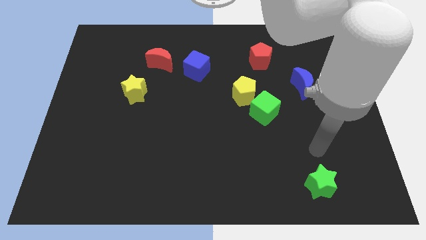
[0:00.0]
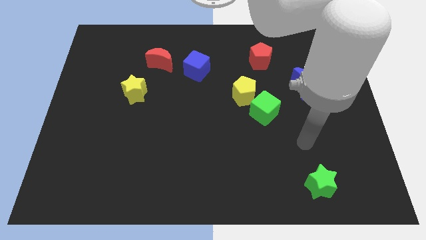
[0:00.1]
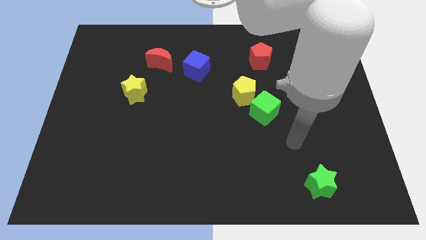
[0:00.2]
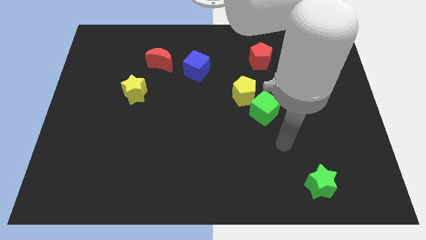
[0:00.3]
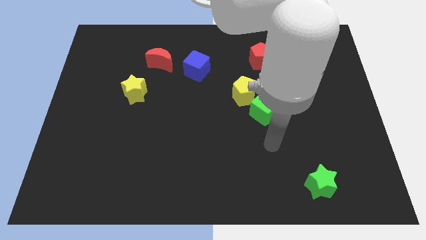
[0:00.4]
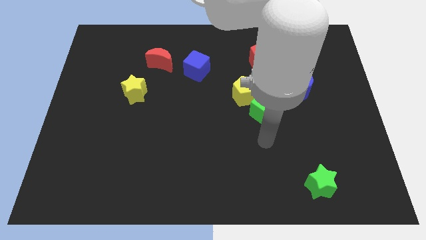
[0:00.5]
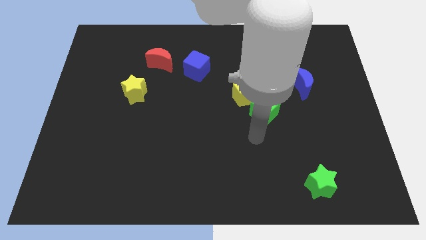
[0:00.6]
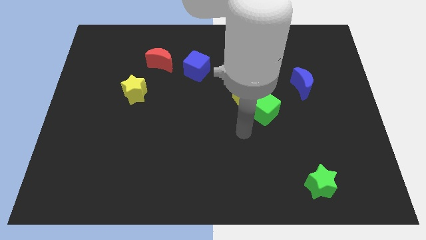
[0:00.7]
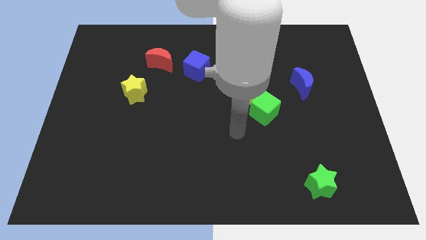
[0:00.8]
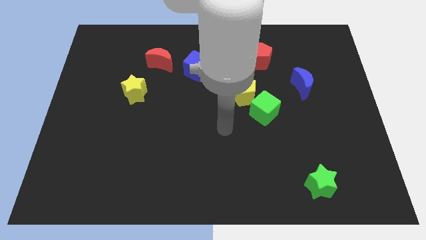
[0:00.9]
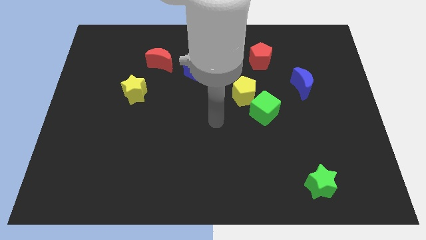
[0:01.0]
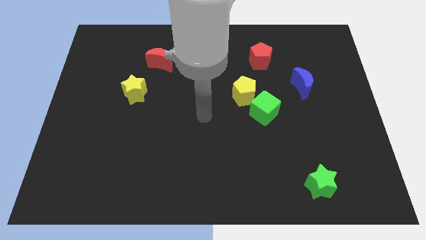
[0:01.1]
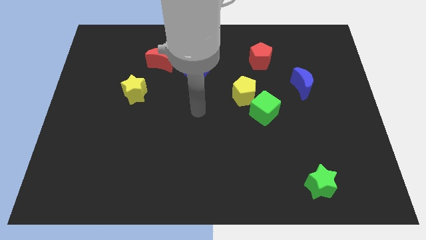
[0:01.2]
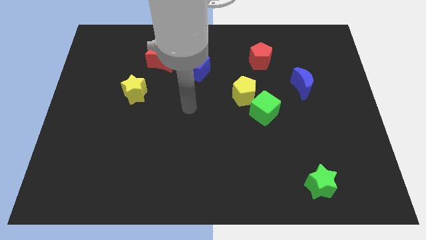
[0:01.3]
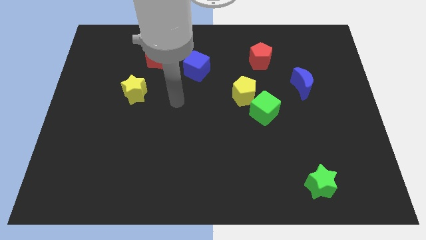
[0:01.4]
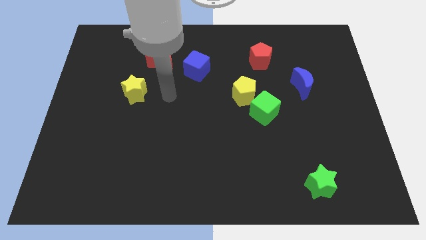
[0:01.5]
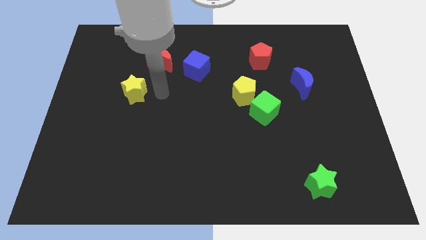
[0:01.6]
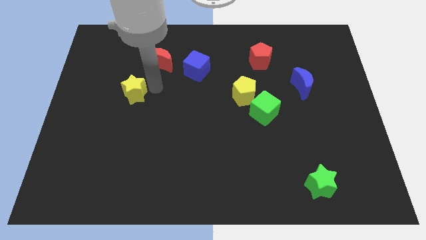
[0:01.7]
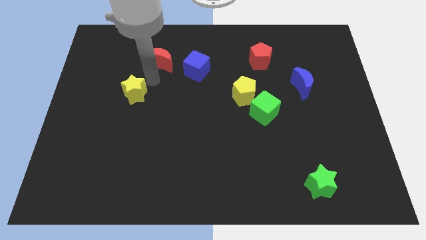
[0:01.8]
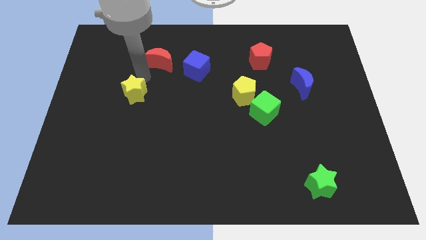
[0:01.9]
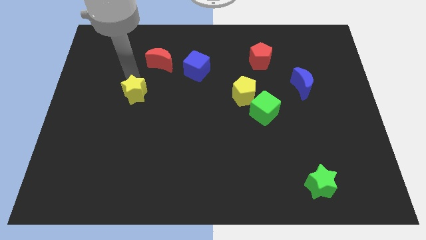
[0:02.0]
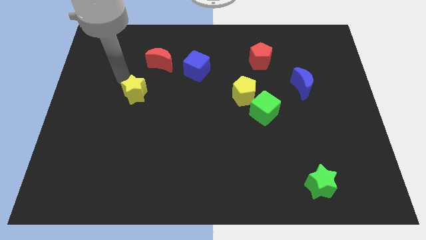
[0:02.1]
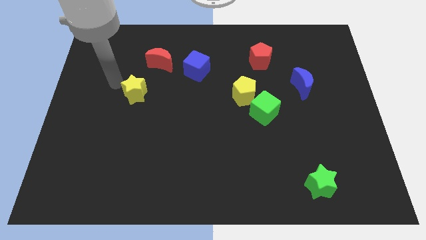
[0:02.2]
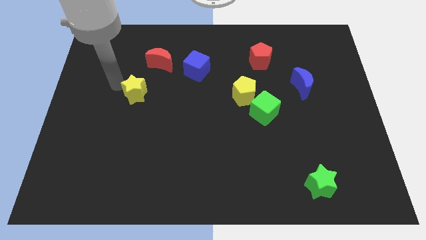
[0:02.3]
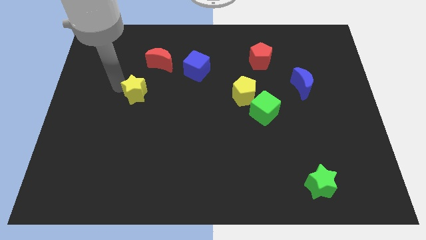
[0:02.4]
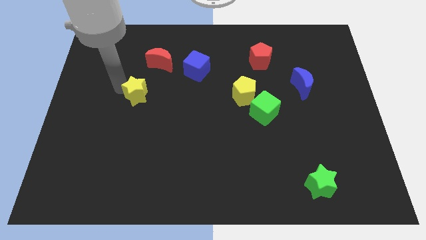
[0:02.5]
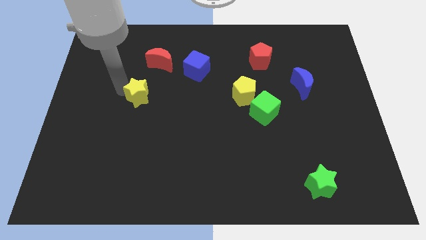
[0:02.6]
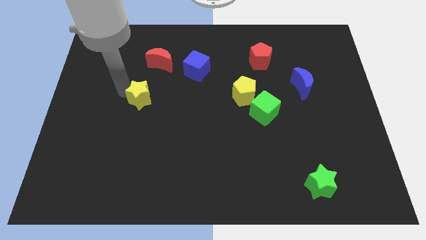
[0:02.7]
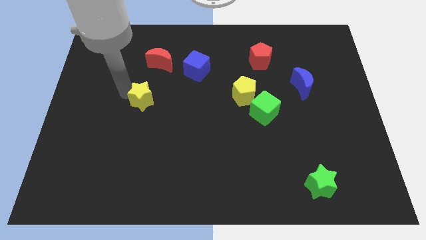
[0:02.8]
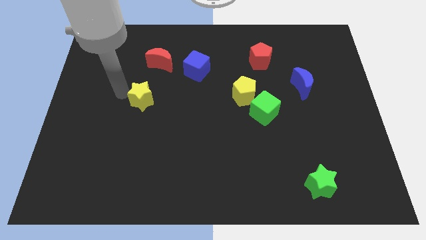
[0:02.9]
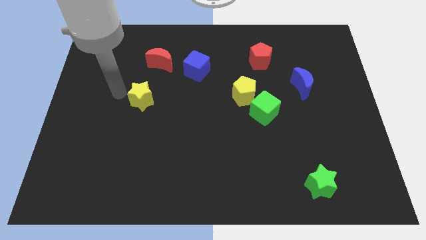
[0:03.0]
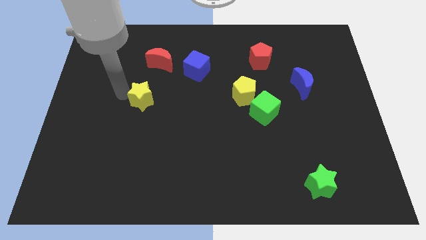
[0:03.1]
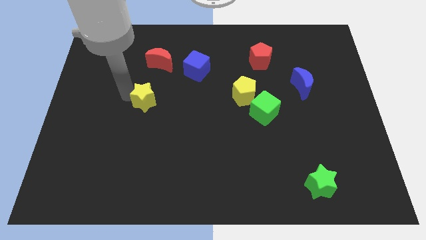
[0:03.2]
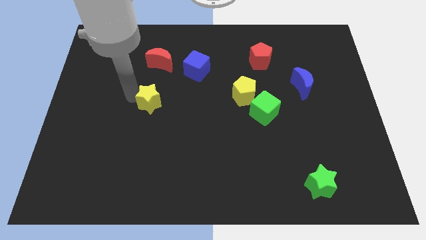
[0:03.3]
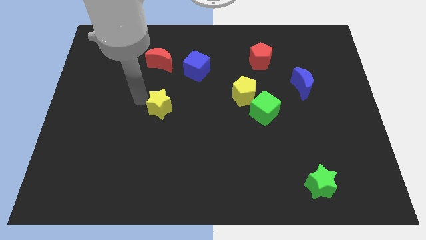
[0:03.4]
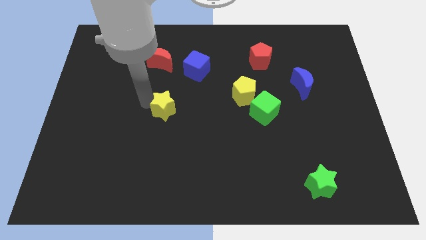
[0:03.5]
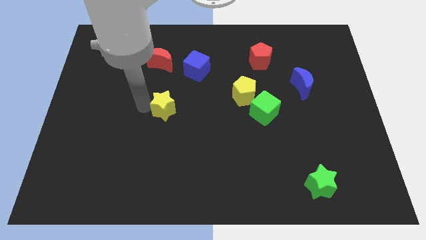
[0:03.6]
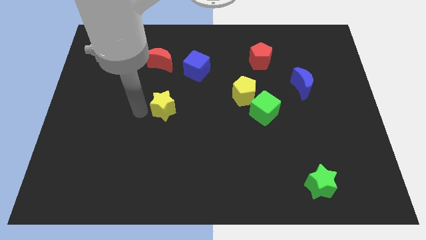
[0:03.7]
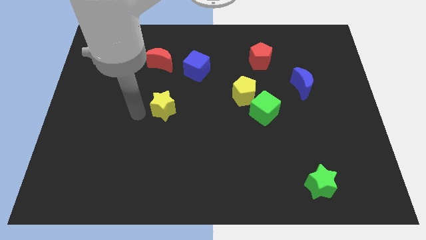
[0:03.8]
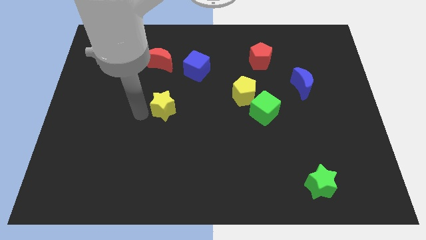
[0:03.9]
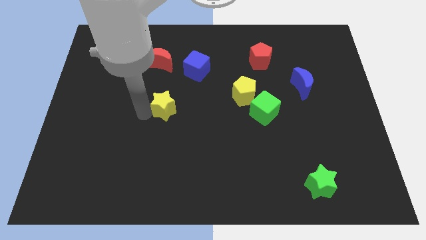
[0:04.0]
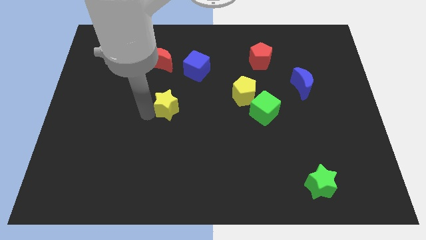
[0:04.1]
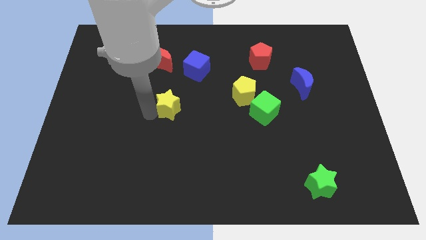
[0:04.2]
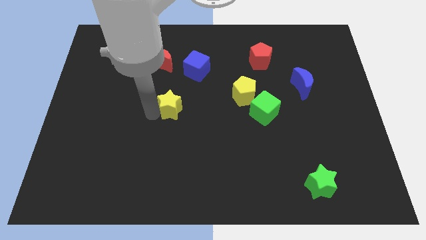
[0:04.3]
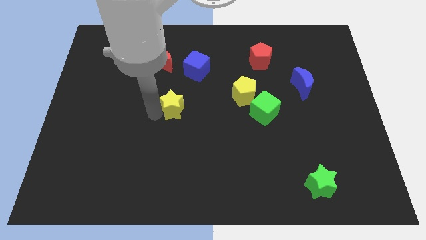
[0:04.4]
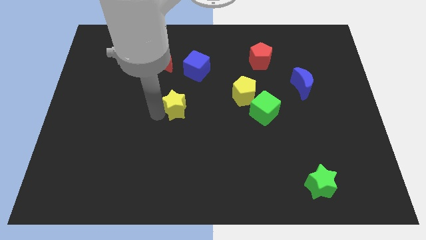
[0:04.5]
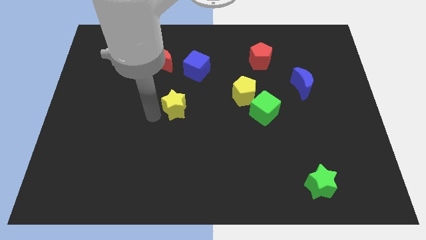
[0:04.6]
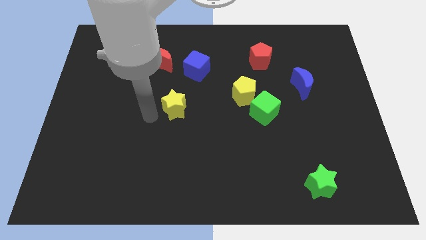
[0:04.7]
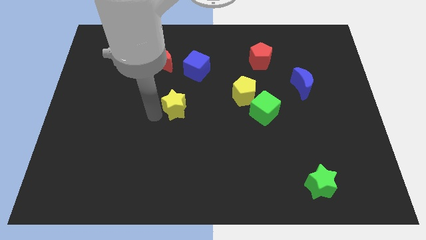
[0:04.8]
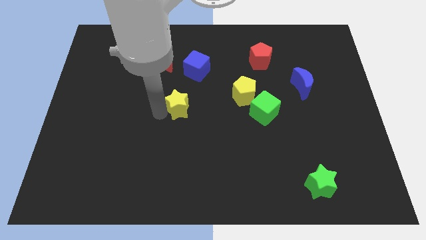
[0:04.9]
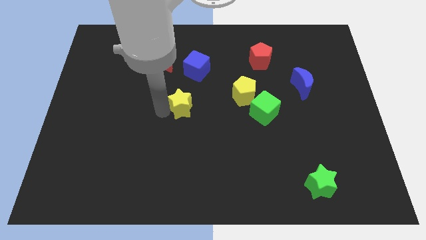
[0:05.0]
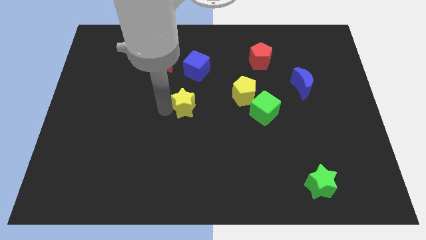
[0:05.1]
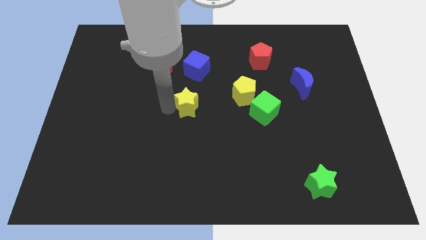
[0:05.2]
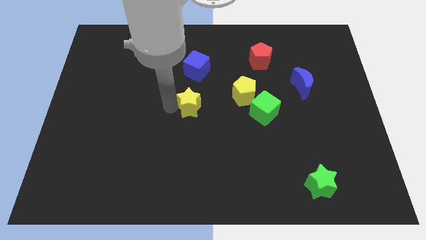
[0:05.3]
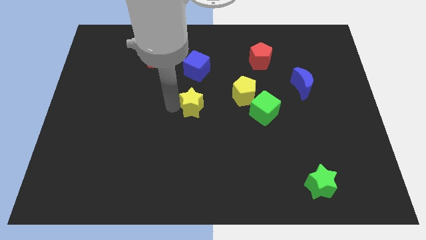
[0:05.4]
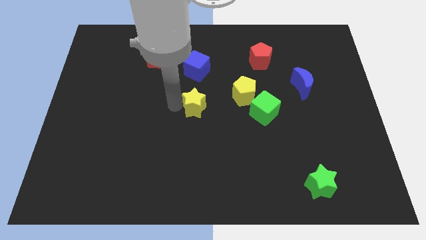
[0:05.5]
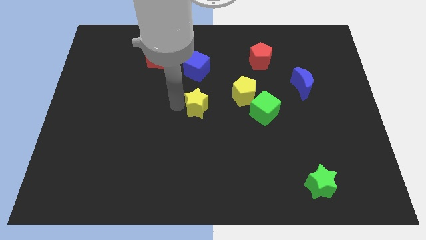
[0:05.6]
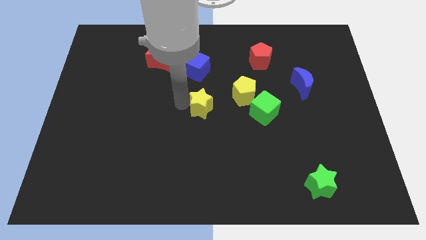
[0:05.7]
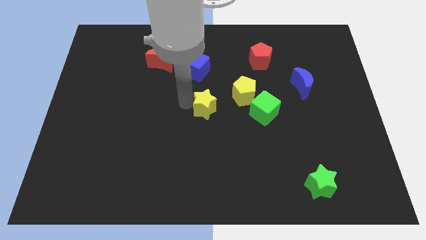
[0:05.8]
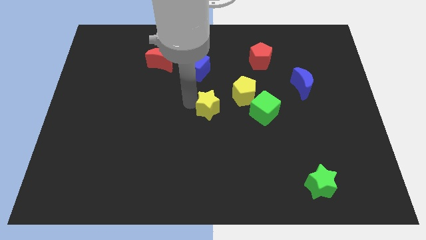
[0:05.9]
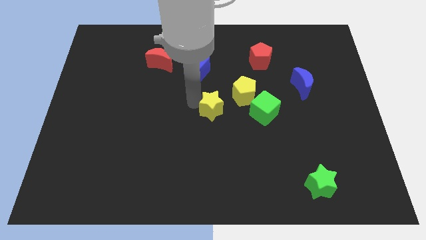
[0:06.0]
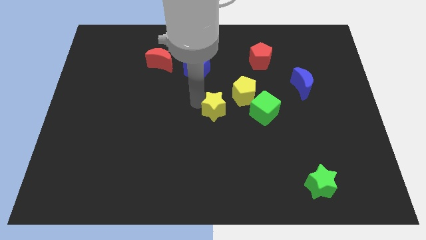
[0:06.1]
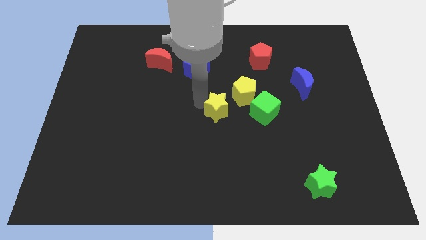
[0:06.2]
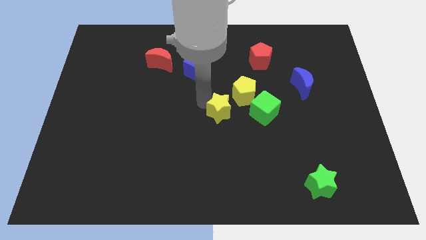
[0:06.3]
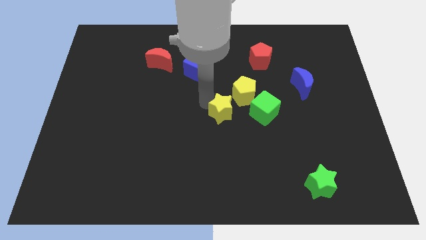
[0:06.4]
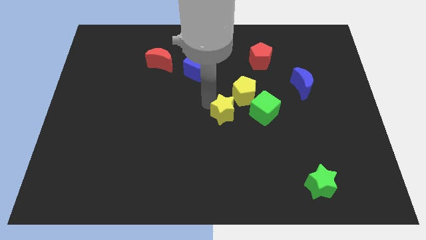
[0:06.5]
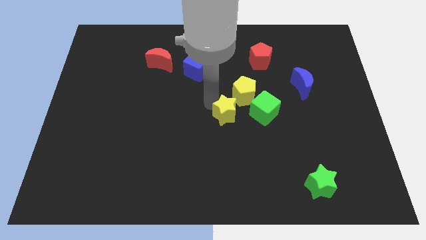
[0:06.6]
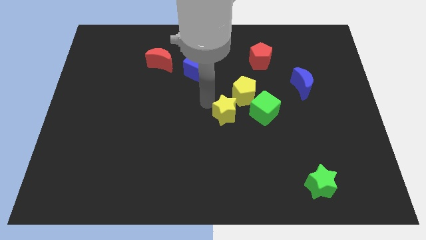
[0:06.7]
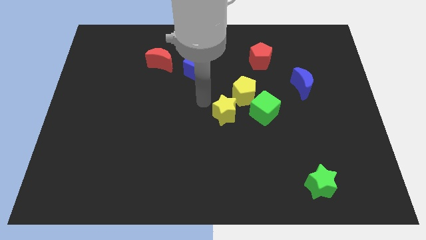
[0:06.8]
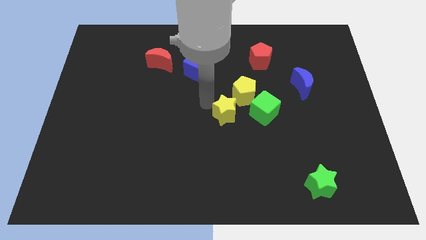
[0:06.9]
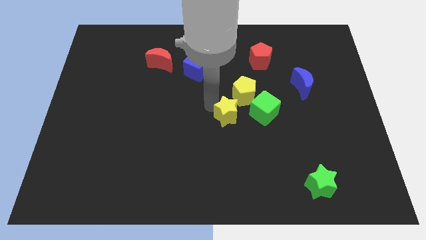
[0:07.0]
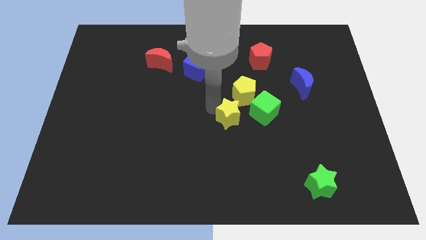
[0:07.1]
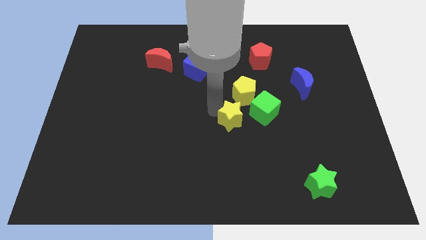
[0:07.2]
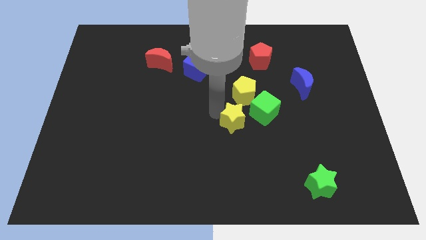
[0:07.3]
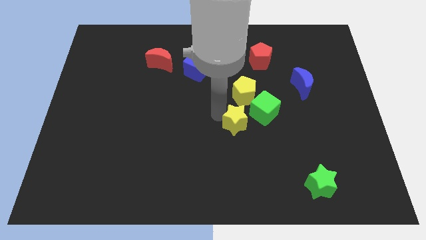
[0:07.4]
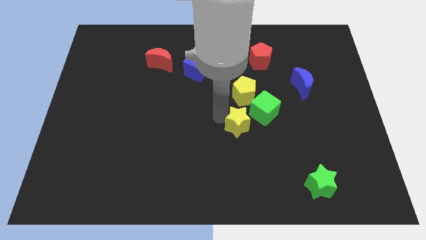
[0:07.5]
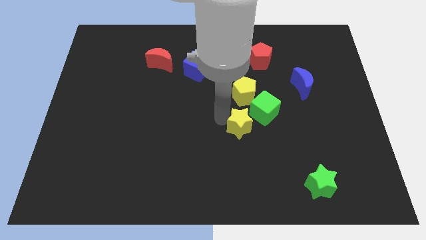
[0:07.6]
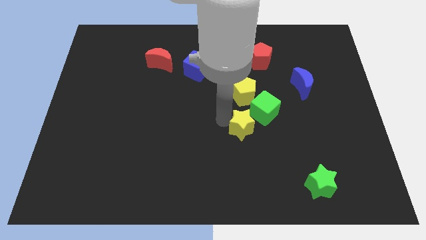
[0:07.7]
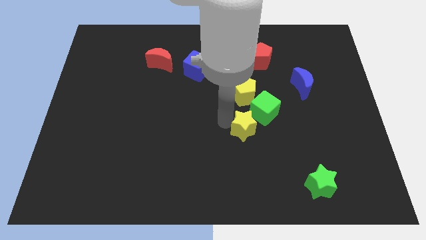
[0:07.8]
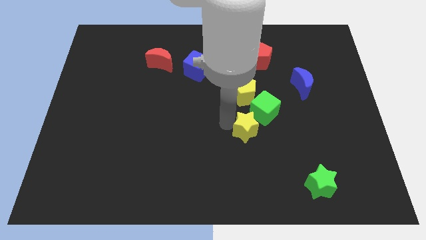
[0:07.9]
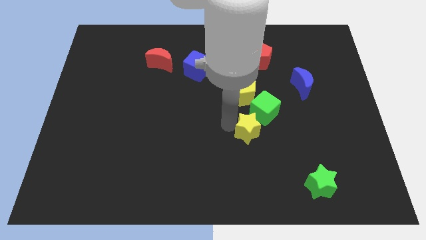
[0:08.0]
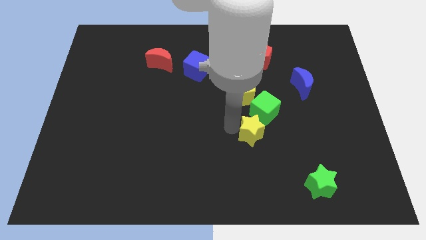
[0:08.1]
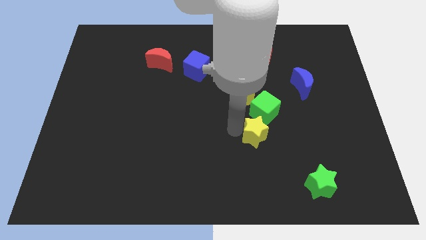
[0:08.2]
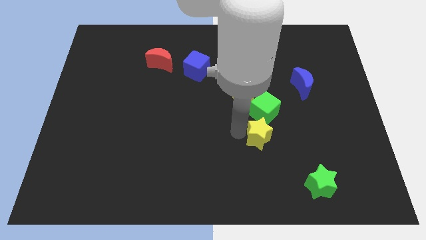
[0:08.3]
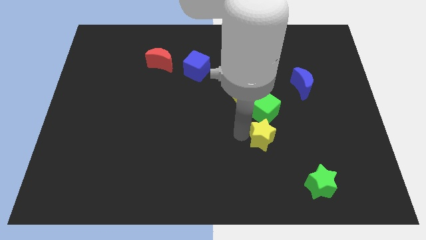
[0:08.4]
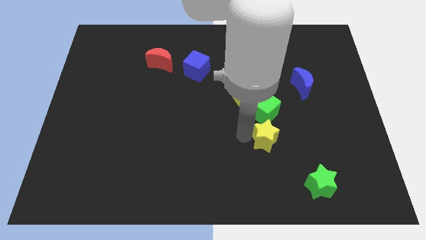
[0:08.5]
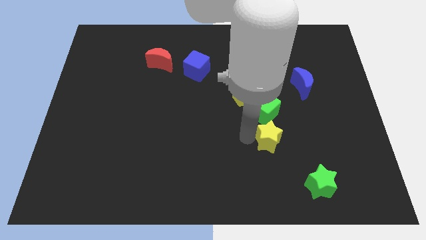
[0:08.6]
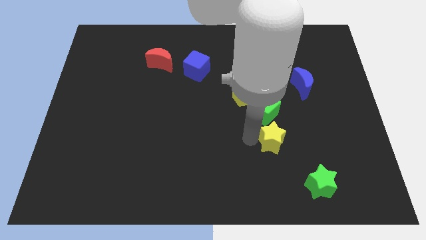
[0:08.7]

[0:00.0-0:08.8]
push the yellow star to the bottom right side of the green cube
